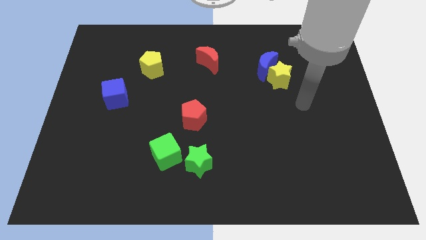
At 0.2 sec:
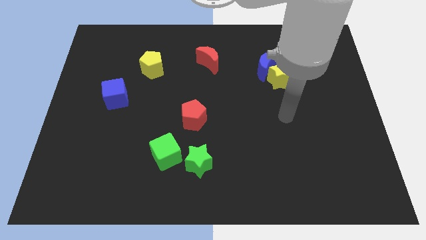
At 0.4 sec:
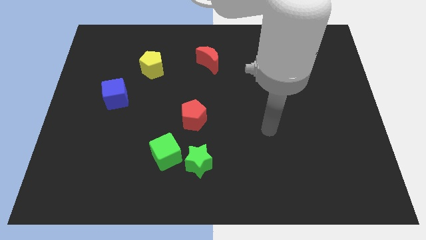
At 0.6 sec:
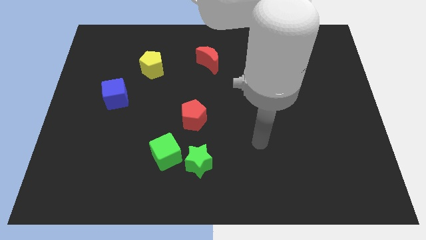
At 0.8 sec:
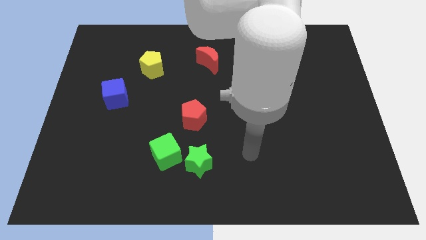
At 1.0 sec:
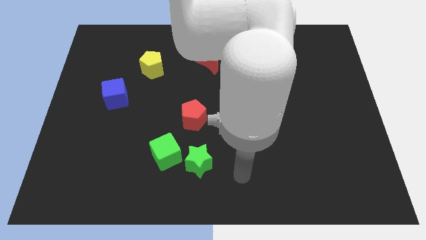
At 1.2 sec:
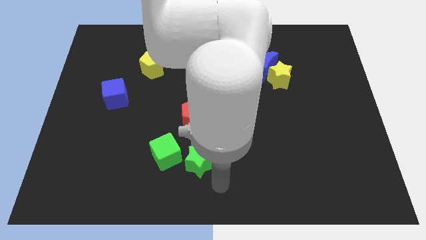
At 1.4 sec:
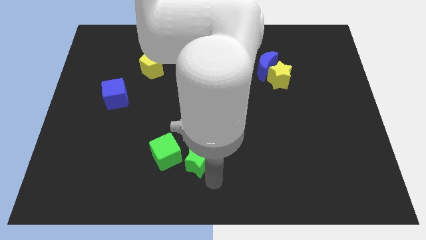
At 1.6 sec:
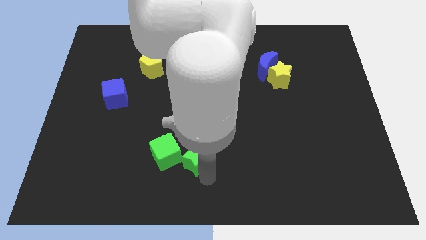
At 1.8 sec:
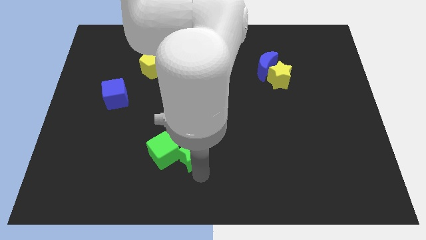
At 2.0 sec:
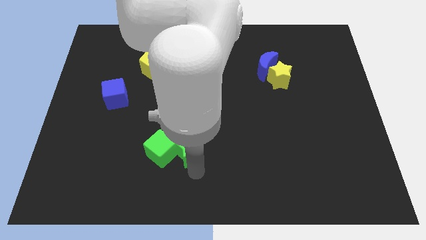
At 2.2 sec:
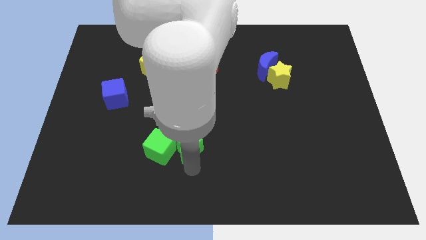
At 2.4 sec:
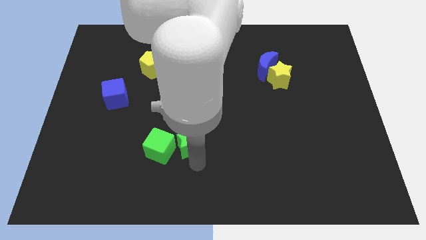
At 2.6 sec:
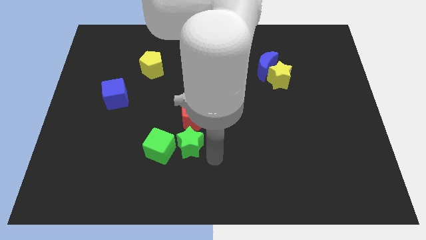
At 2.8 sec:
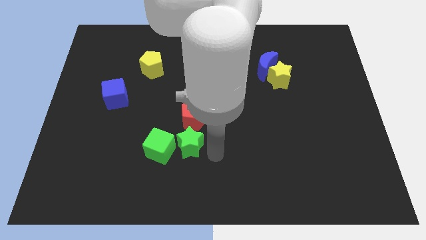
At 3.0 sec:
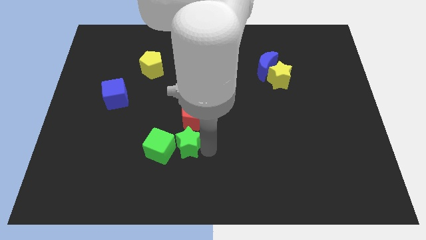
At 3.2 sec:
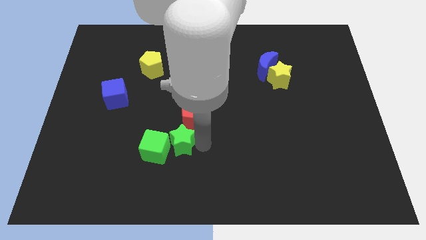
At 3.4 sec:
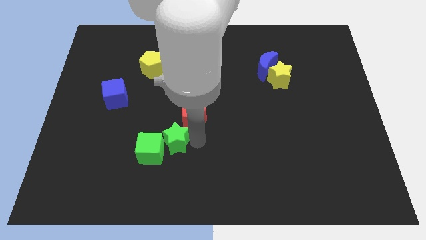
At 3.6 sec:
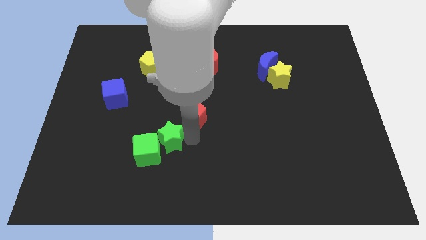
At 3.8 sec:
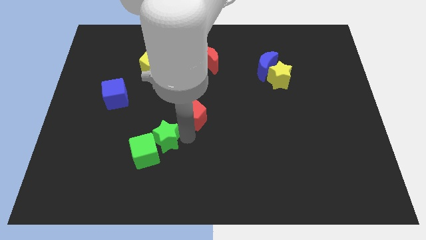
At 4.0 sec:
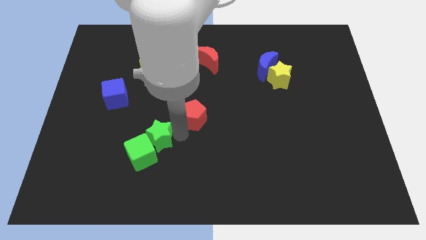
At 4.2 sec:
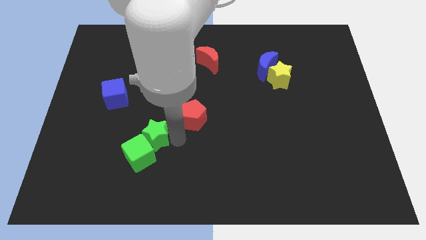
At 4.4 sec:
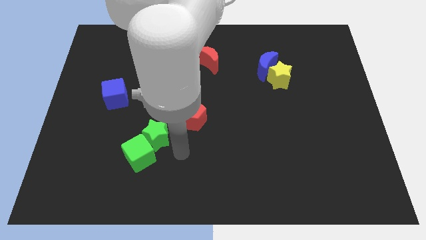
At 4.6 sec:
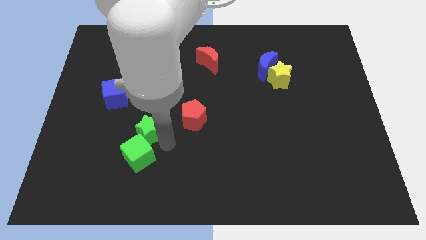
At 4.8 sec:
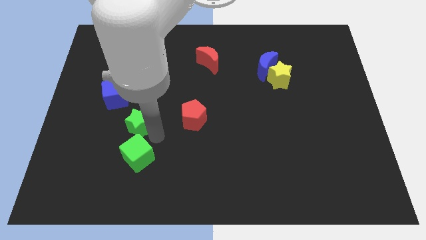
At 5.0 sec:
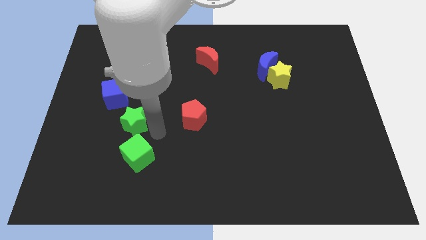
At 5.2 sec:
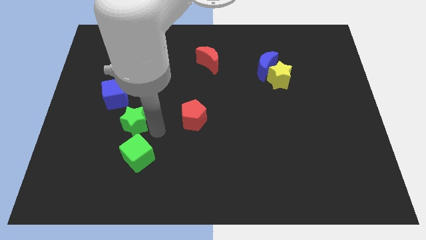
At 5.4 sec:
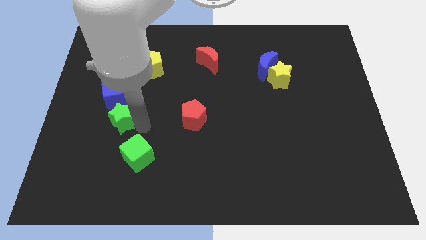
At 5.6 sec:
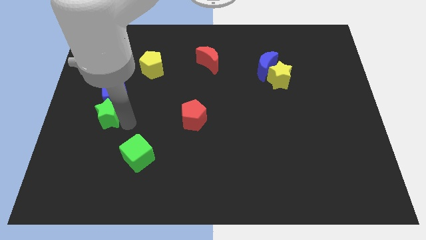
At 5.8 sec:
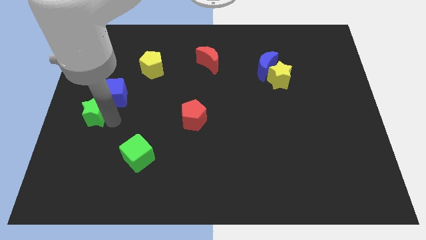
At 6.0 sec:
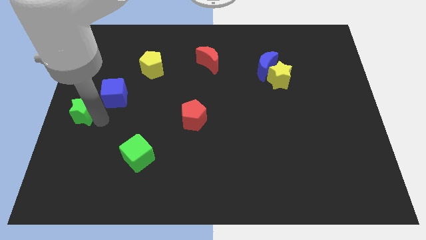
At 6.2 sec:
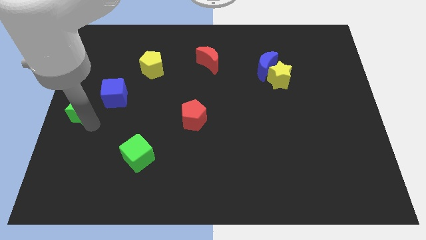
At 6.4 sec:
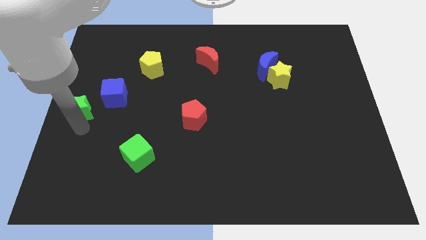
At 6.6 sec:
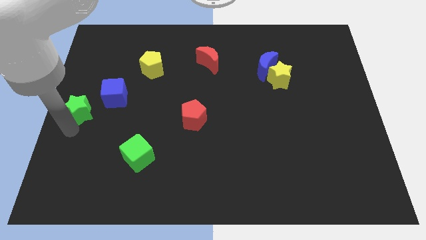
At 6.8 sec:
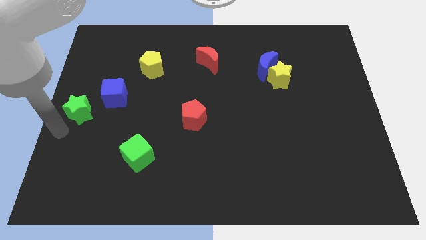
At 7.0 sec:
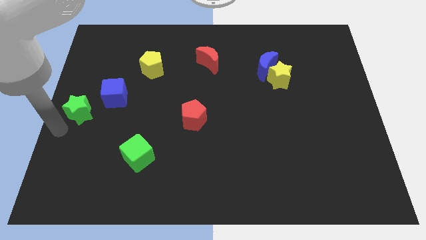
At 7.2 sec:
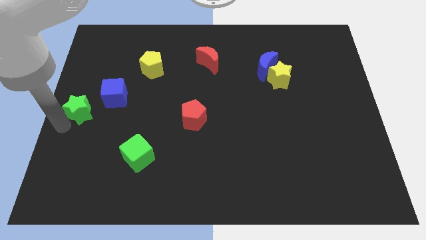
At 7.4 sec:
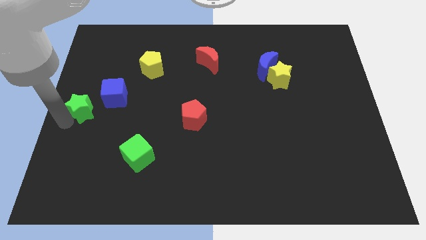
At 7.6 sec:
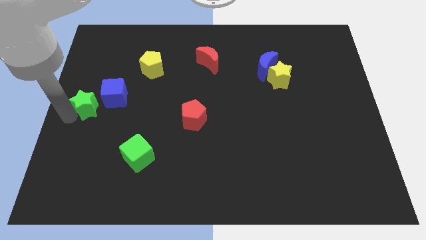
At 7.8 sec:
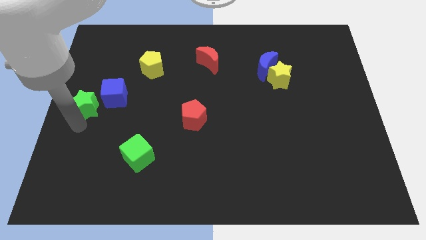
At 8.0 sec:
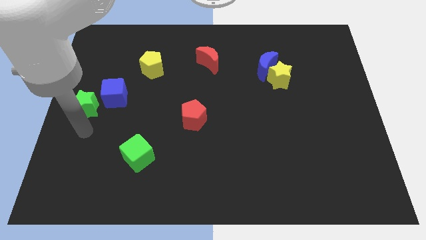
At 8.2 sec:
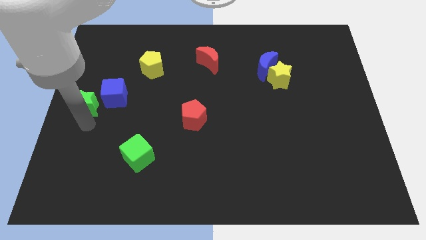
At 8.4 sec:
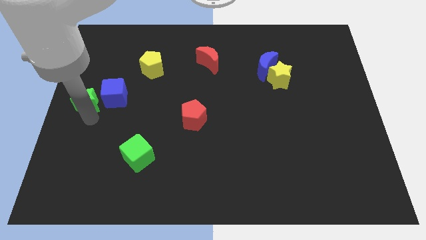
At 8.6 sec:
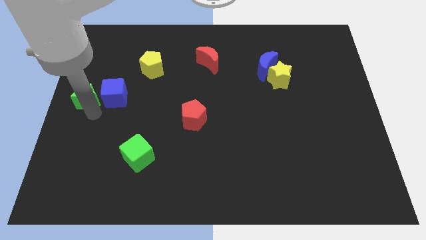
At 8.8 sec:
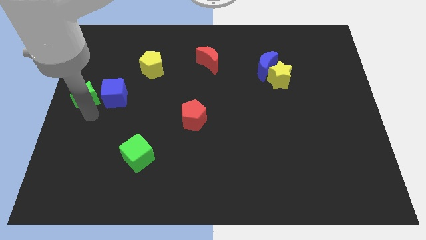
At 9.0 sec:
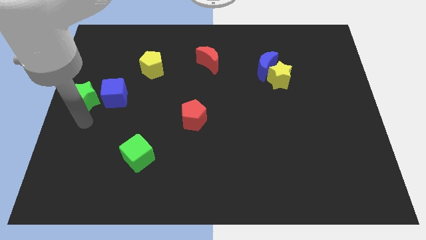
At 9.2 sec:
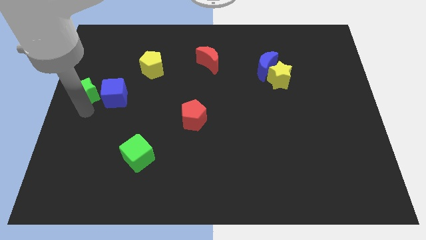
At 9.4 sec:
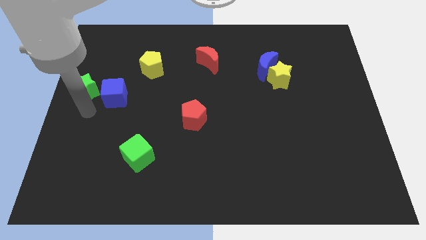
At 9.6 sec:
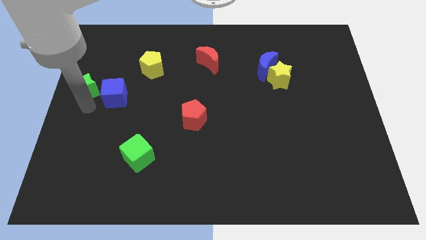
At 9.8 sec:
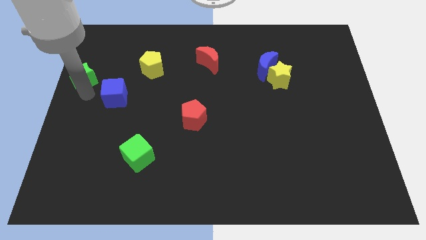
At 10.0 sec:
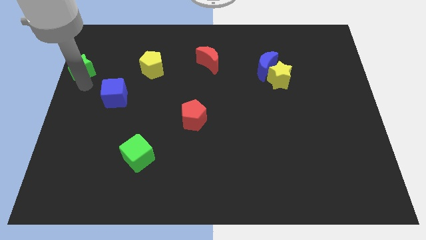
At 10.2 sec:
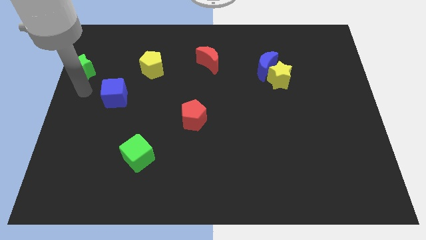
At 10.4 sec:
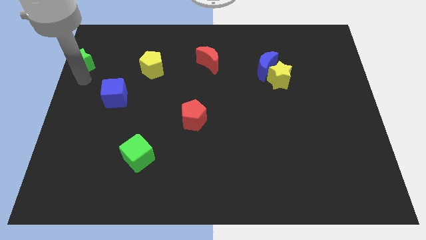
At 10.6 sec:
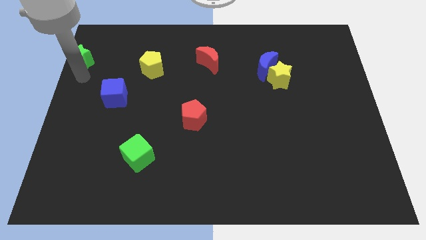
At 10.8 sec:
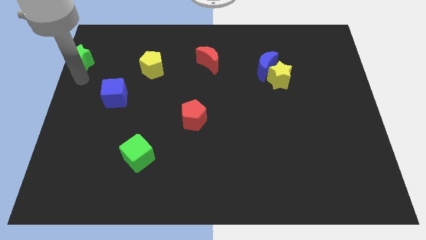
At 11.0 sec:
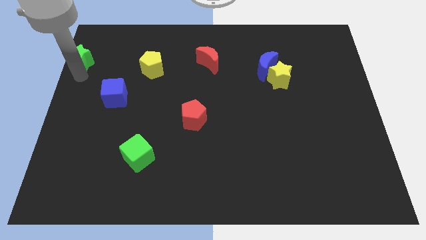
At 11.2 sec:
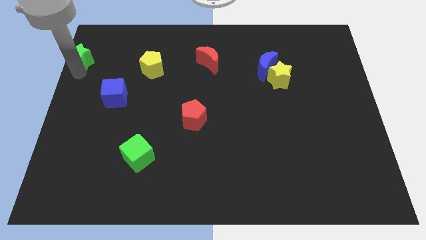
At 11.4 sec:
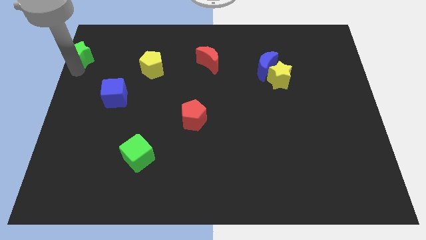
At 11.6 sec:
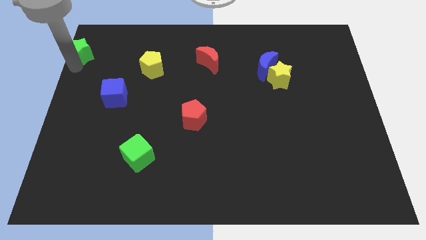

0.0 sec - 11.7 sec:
slide the green star to the top left

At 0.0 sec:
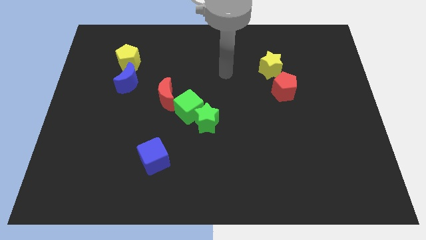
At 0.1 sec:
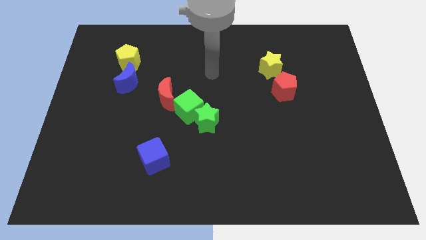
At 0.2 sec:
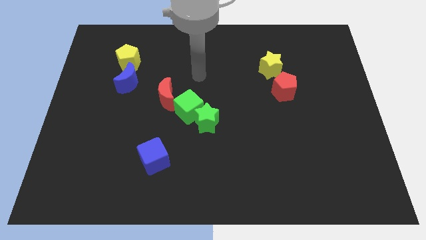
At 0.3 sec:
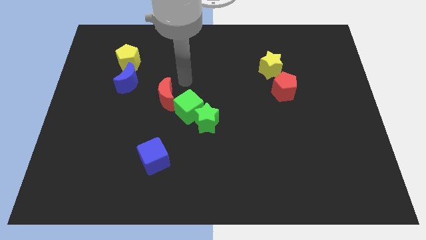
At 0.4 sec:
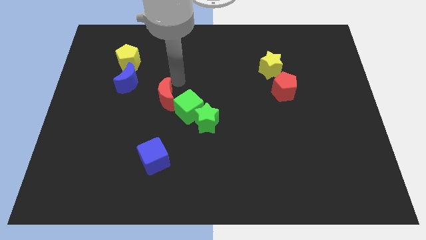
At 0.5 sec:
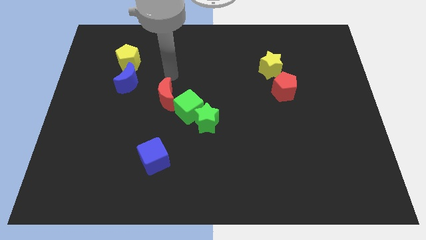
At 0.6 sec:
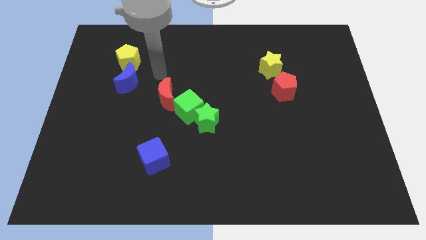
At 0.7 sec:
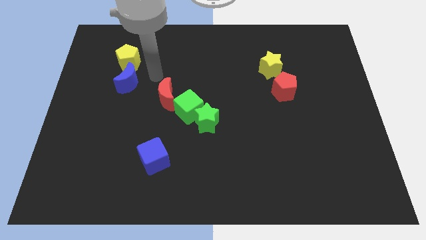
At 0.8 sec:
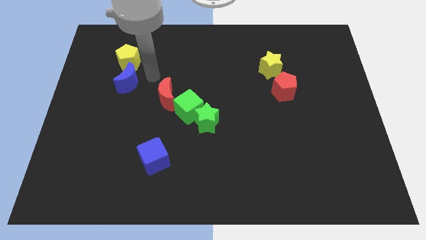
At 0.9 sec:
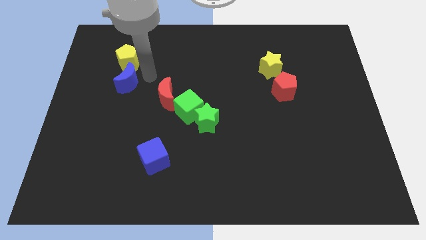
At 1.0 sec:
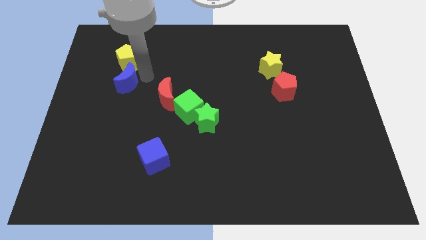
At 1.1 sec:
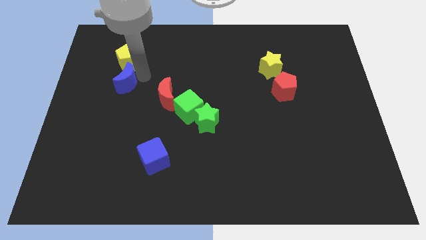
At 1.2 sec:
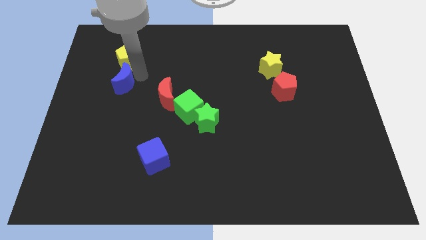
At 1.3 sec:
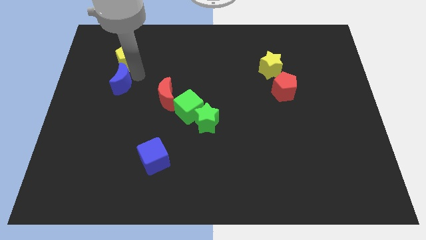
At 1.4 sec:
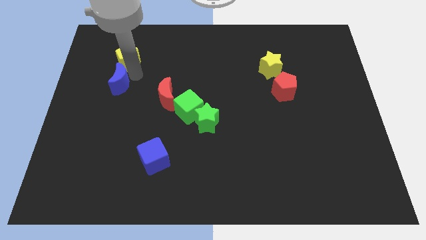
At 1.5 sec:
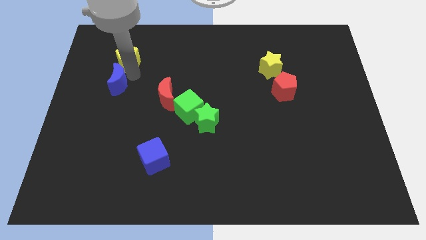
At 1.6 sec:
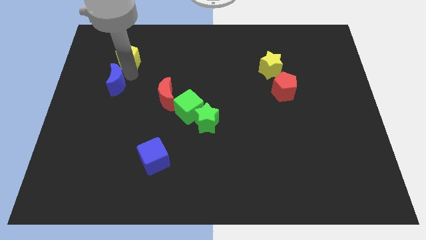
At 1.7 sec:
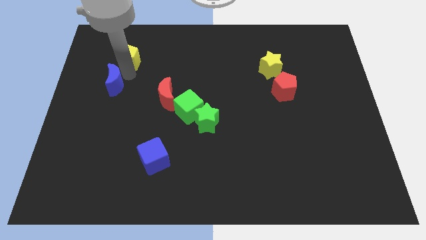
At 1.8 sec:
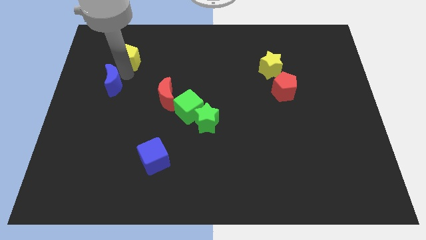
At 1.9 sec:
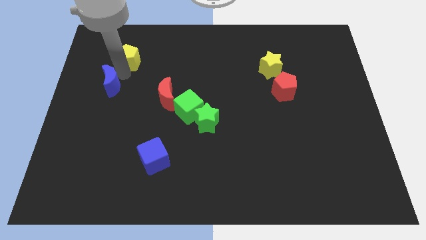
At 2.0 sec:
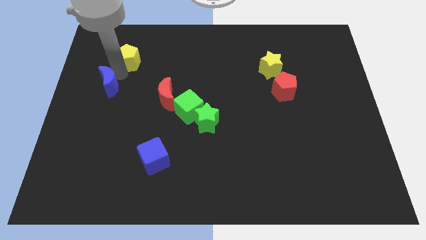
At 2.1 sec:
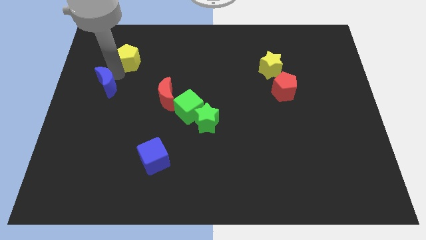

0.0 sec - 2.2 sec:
slide the blue moon to the center left
